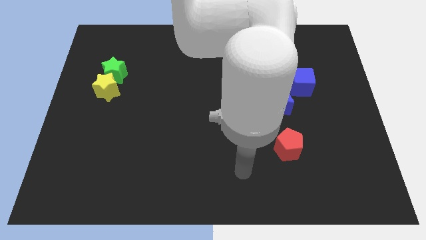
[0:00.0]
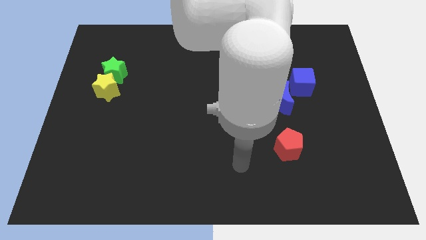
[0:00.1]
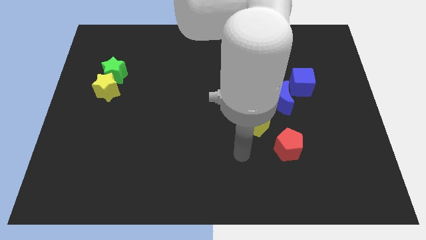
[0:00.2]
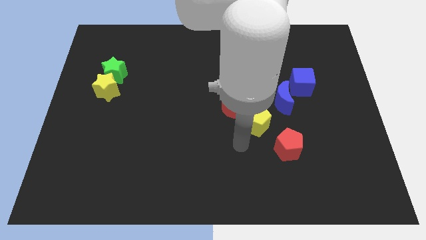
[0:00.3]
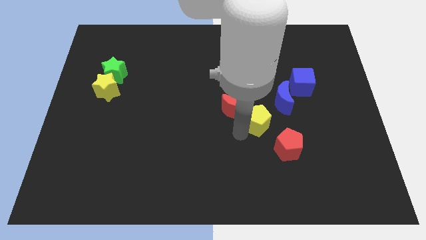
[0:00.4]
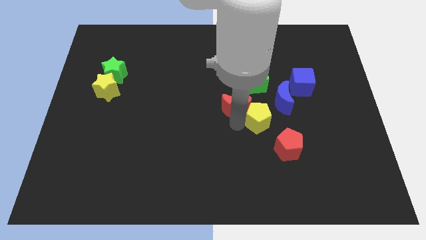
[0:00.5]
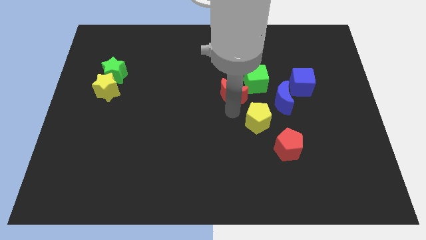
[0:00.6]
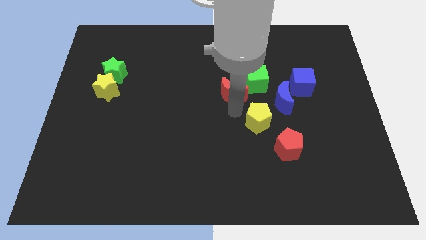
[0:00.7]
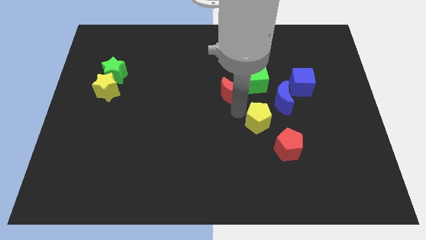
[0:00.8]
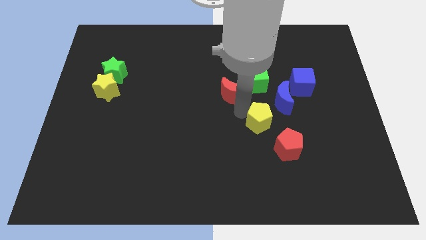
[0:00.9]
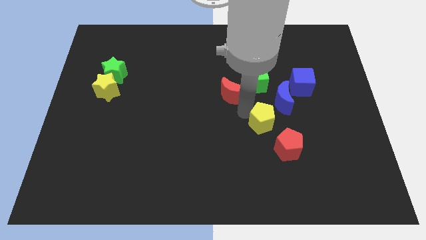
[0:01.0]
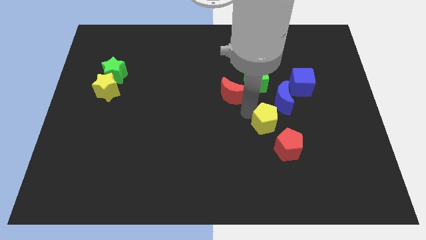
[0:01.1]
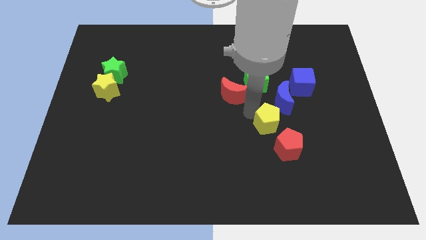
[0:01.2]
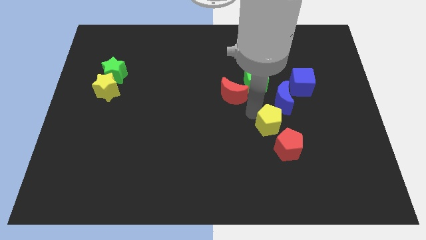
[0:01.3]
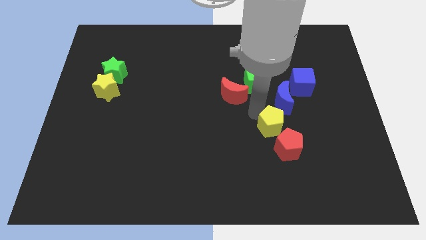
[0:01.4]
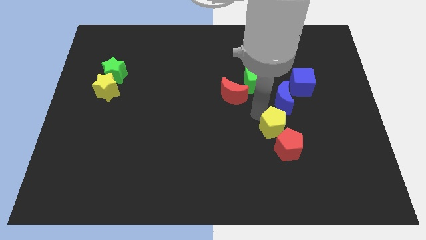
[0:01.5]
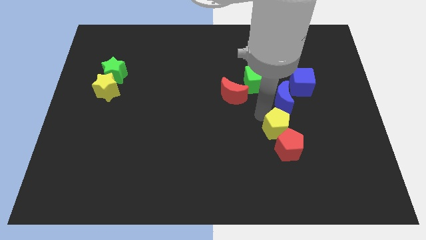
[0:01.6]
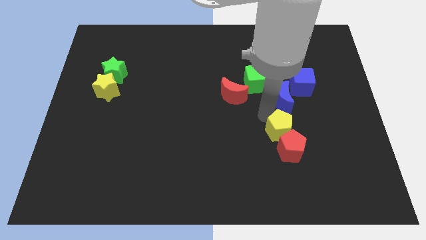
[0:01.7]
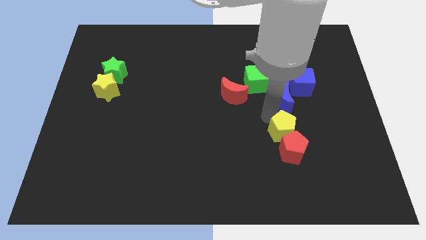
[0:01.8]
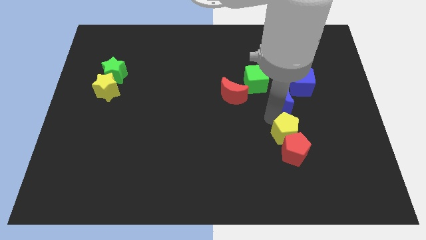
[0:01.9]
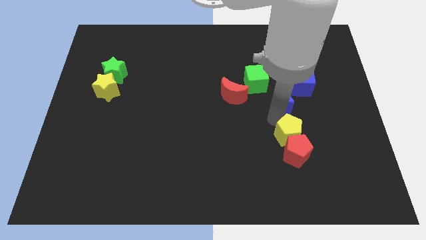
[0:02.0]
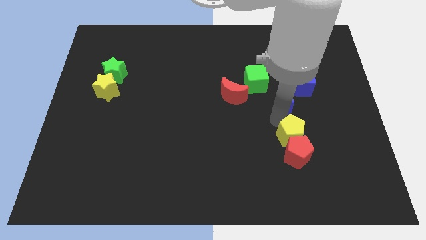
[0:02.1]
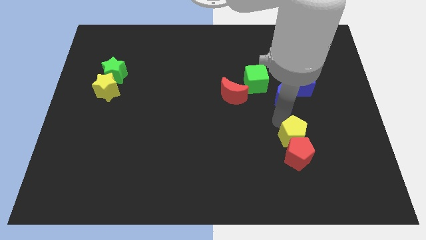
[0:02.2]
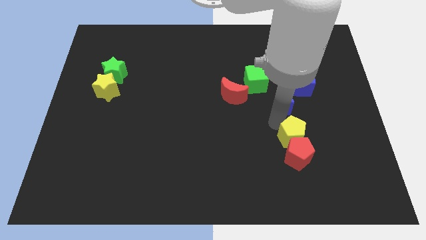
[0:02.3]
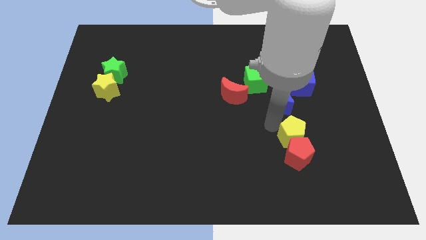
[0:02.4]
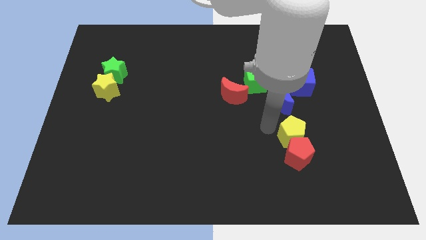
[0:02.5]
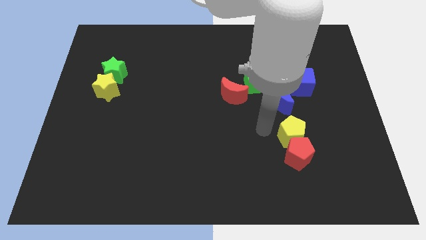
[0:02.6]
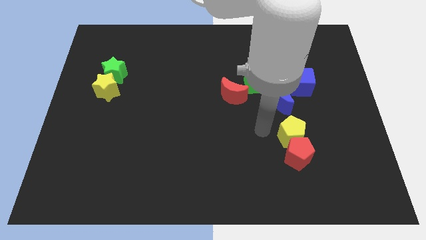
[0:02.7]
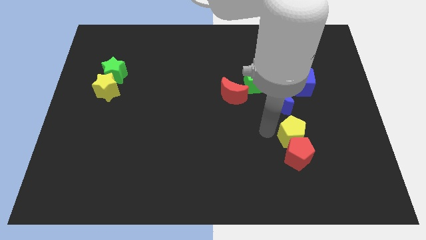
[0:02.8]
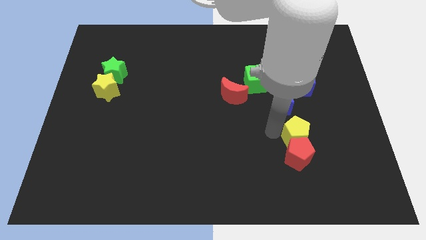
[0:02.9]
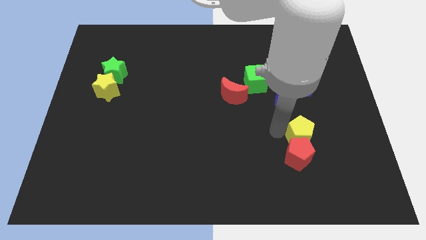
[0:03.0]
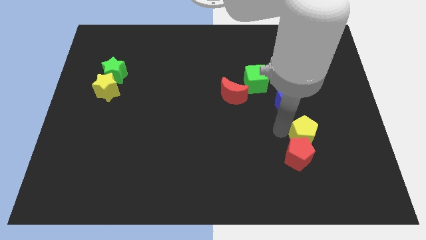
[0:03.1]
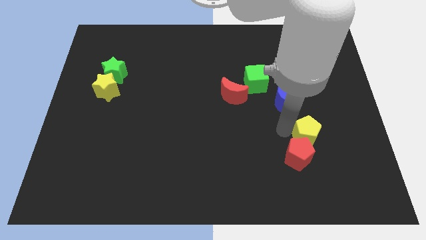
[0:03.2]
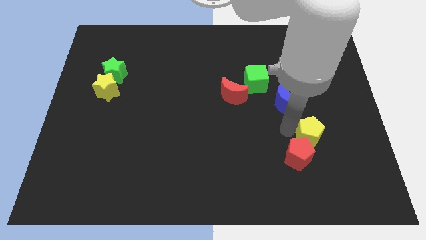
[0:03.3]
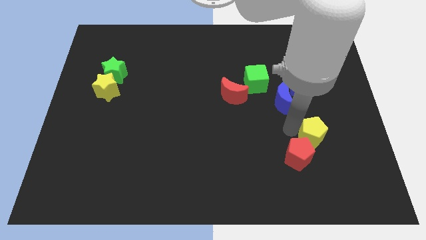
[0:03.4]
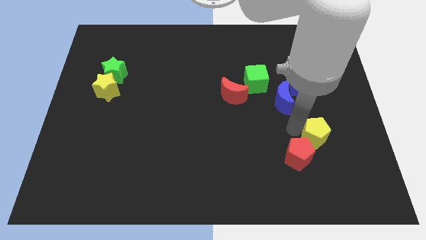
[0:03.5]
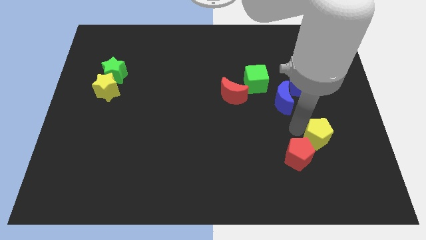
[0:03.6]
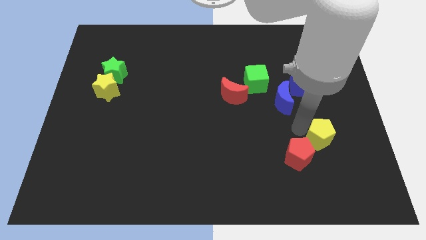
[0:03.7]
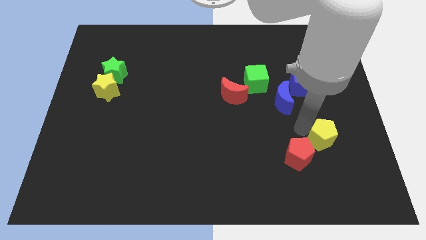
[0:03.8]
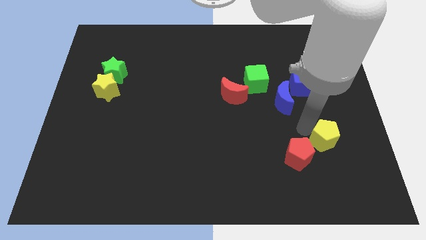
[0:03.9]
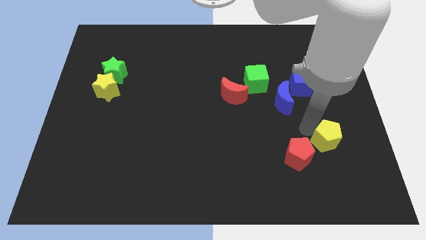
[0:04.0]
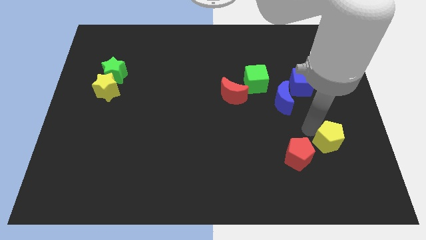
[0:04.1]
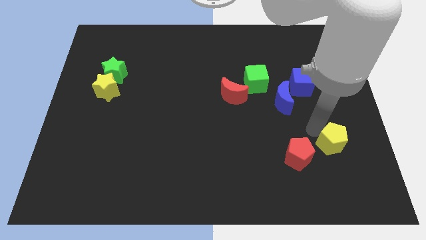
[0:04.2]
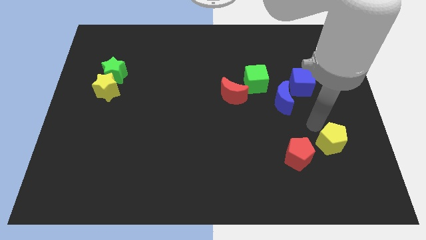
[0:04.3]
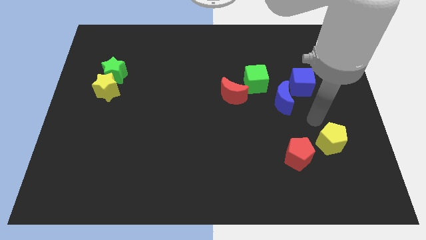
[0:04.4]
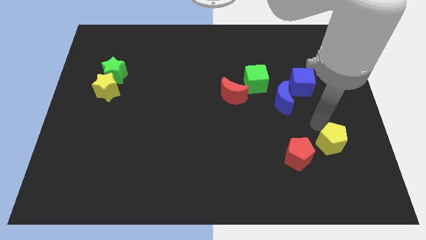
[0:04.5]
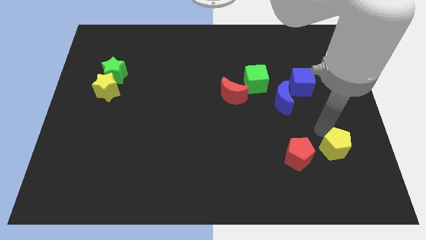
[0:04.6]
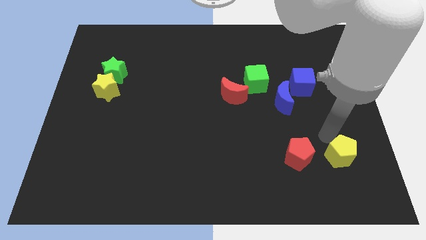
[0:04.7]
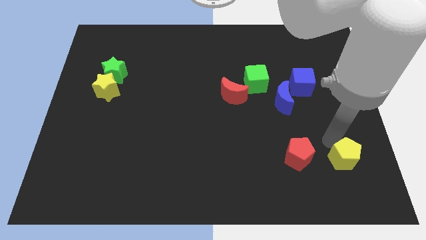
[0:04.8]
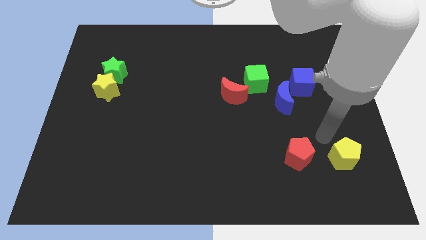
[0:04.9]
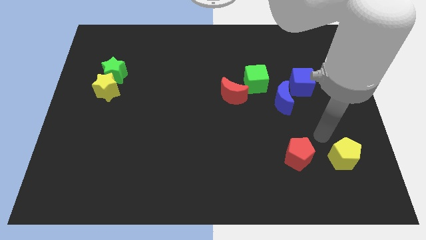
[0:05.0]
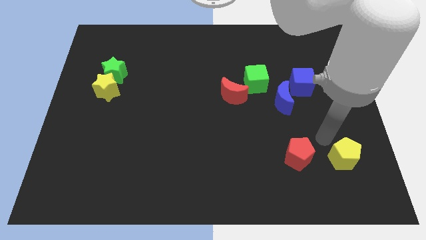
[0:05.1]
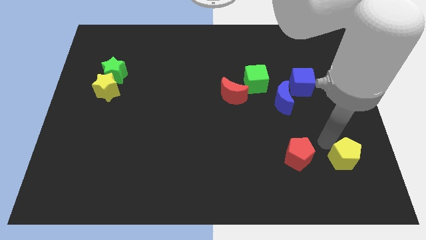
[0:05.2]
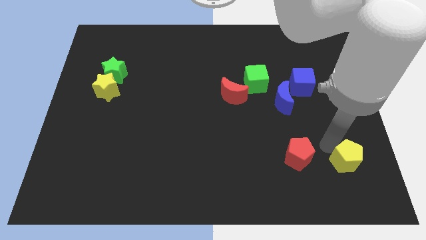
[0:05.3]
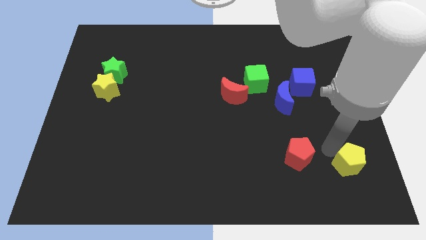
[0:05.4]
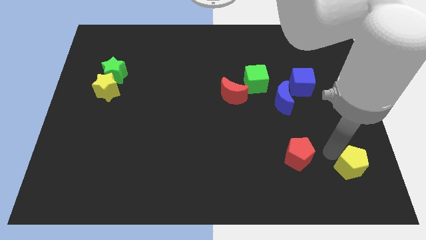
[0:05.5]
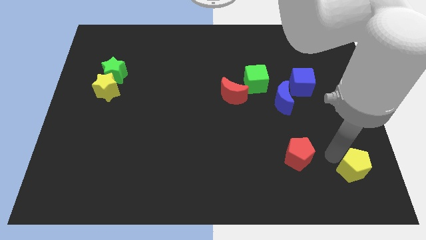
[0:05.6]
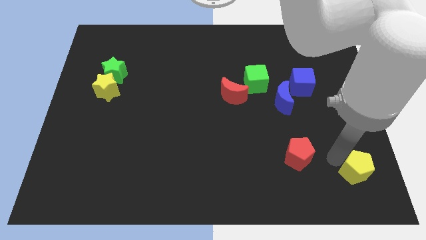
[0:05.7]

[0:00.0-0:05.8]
put the yellow pentagon to the bottom right corner
